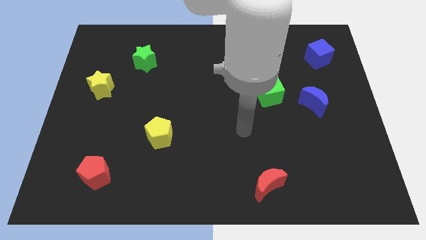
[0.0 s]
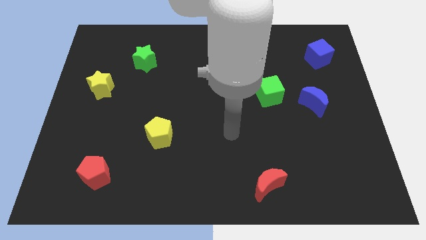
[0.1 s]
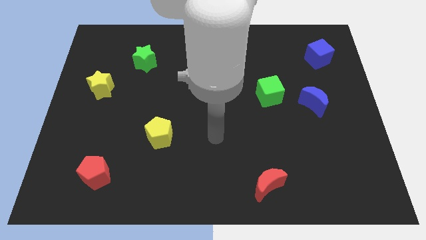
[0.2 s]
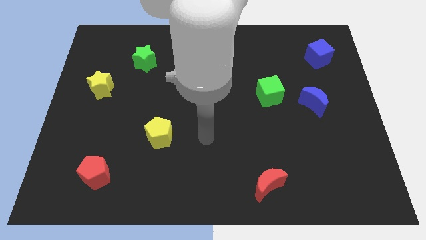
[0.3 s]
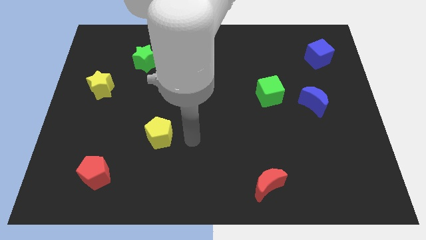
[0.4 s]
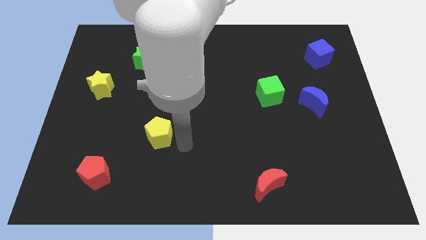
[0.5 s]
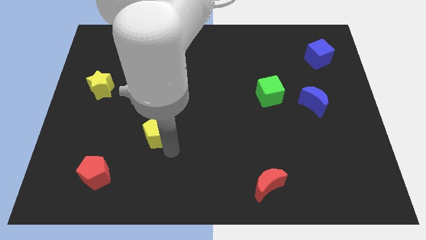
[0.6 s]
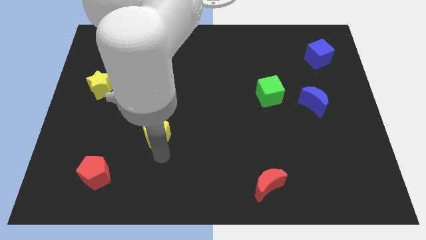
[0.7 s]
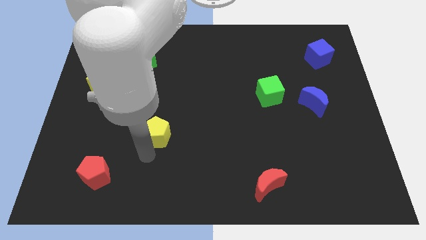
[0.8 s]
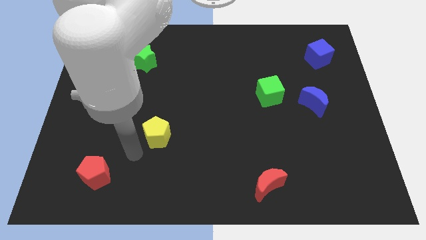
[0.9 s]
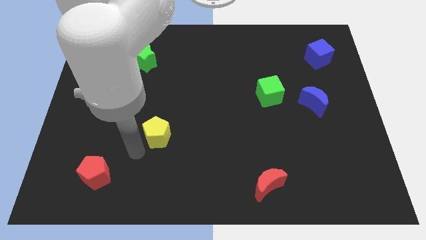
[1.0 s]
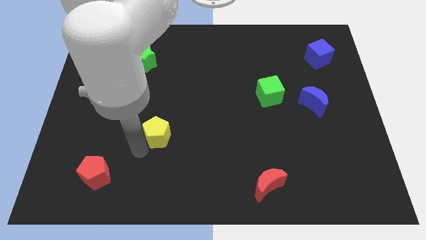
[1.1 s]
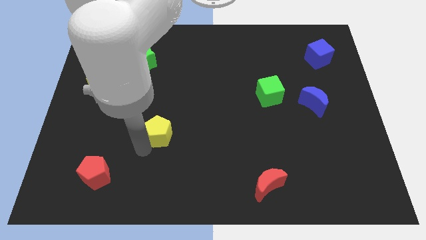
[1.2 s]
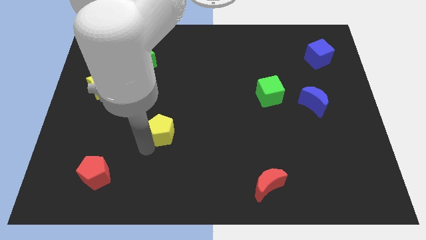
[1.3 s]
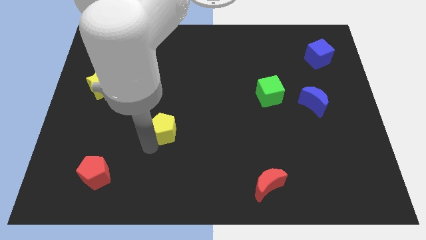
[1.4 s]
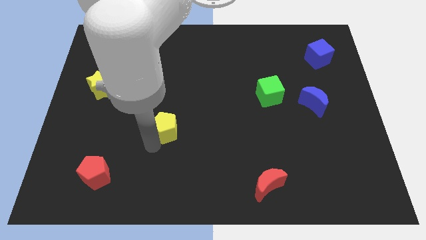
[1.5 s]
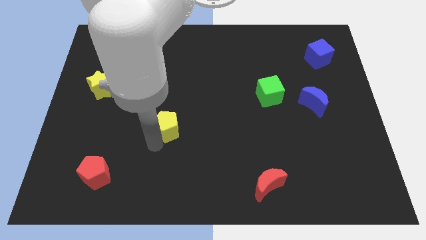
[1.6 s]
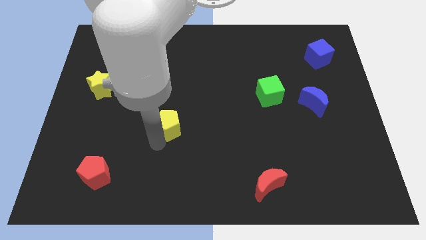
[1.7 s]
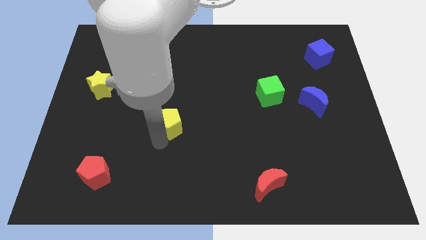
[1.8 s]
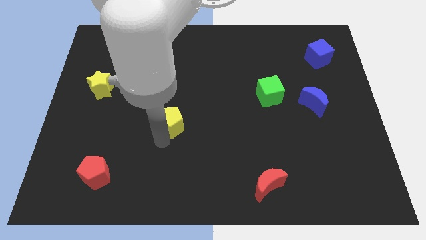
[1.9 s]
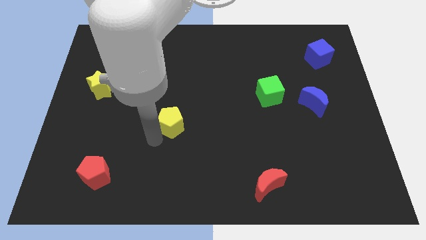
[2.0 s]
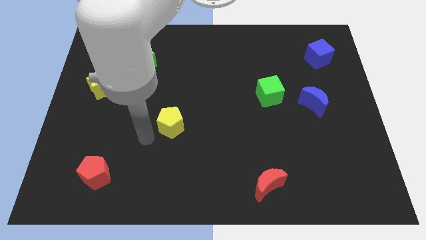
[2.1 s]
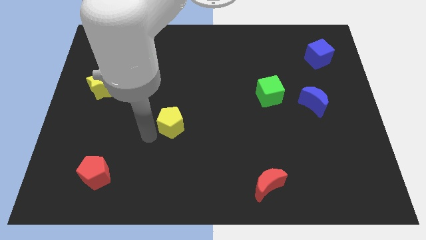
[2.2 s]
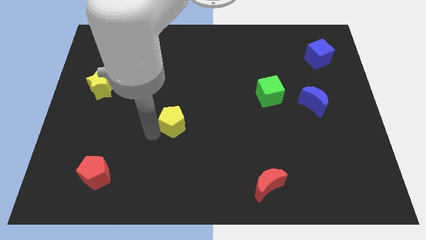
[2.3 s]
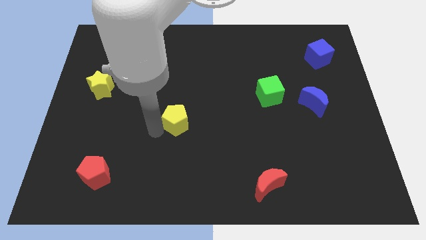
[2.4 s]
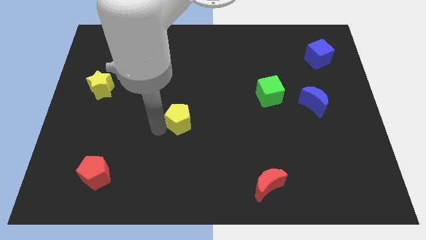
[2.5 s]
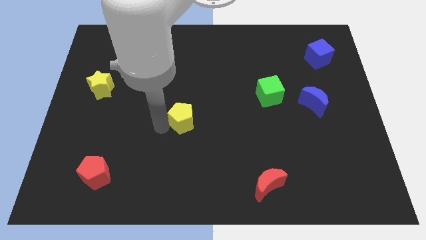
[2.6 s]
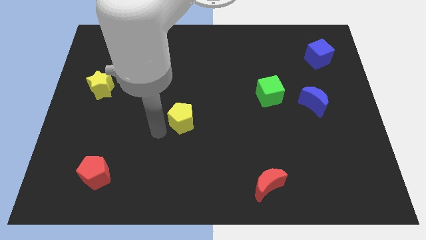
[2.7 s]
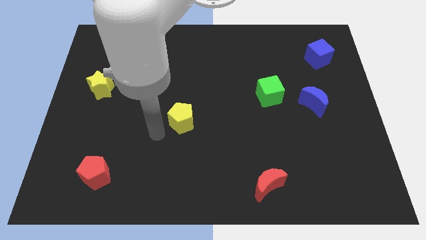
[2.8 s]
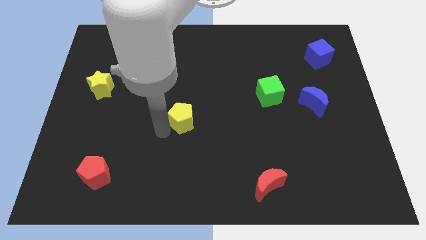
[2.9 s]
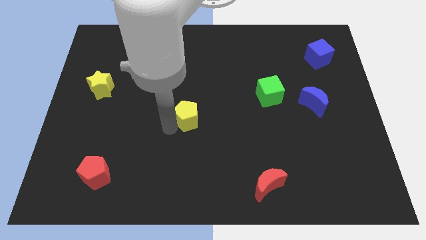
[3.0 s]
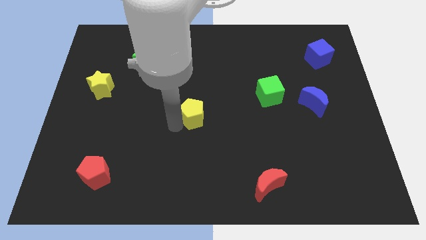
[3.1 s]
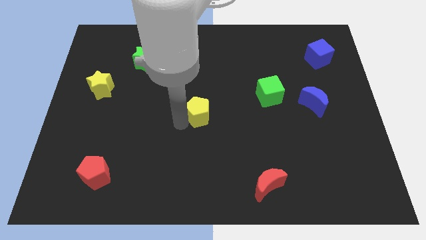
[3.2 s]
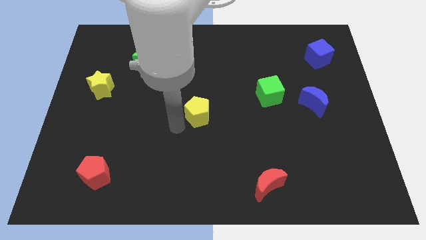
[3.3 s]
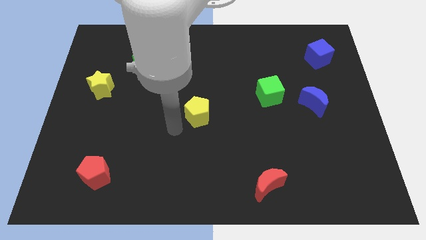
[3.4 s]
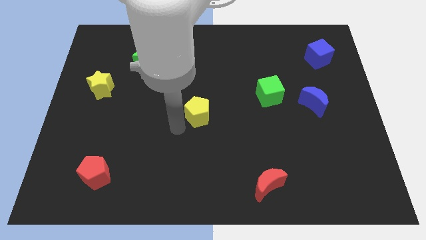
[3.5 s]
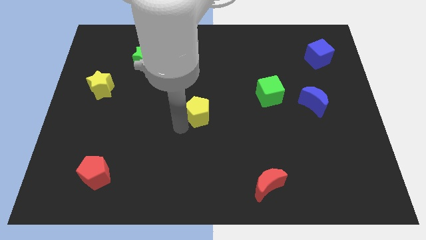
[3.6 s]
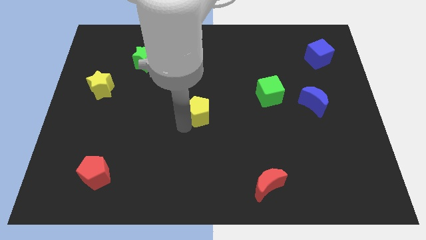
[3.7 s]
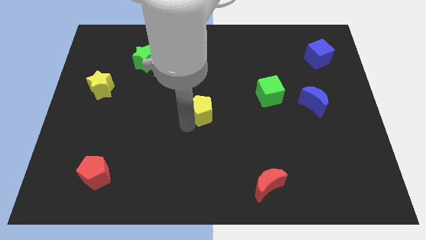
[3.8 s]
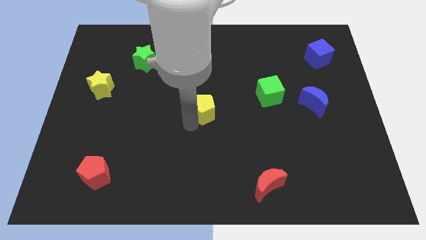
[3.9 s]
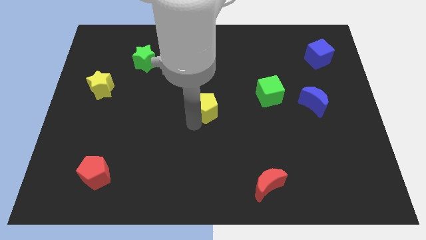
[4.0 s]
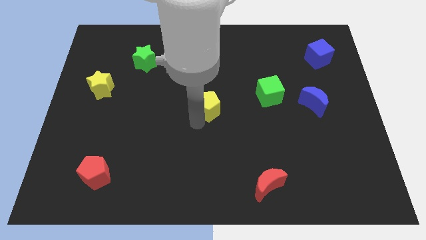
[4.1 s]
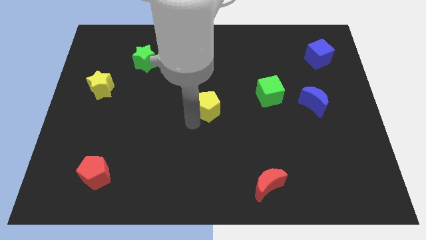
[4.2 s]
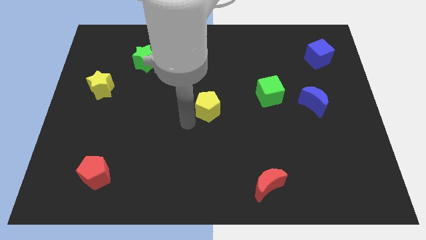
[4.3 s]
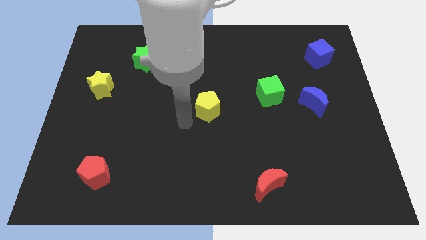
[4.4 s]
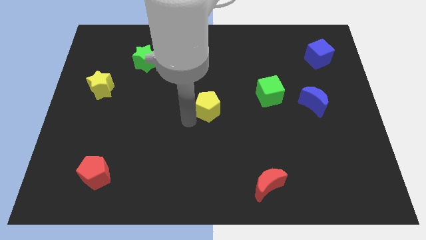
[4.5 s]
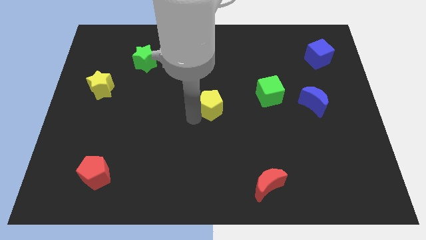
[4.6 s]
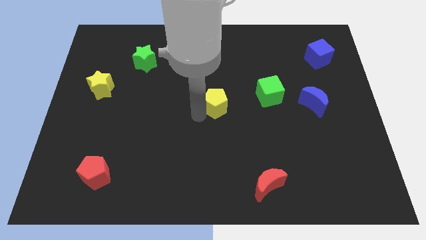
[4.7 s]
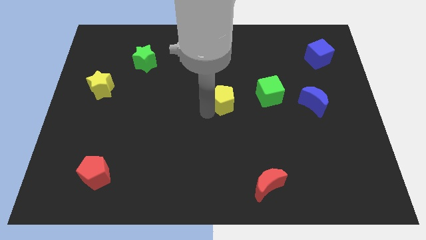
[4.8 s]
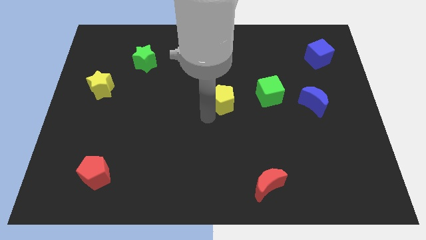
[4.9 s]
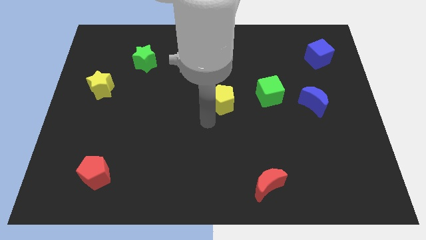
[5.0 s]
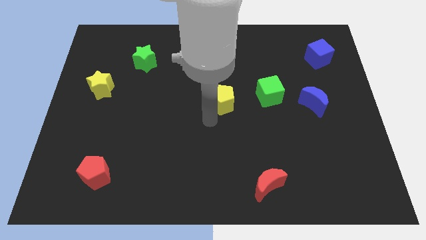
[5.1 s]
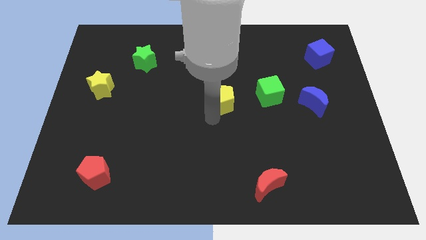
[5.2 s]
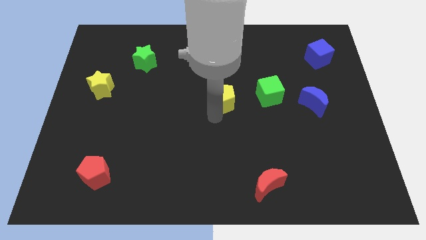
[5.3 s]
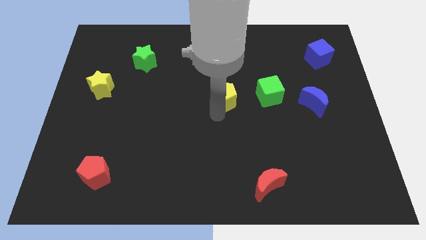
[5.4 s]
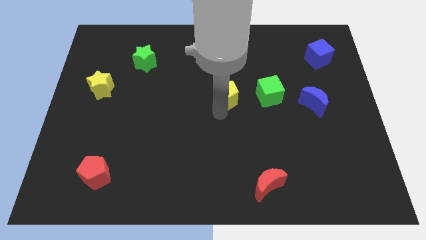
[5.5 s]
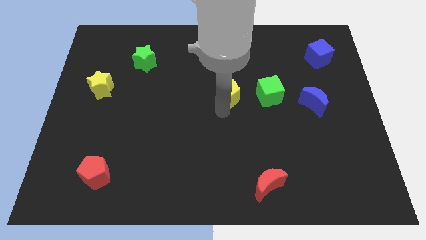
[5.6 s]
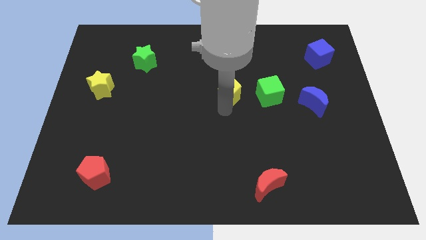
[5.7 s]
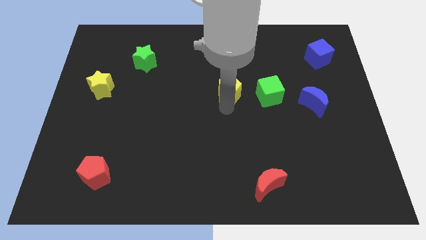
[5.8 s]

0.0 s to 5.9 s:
slide the yellow pentagon upwards and to the right diagonally

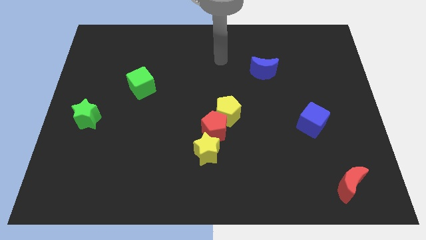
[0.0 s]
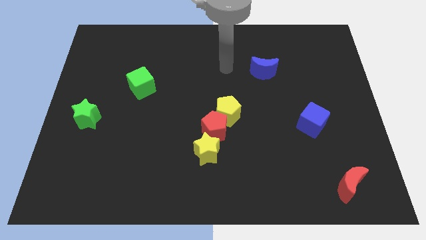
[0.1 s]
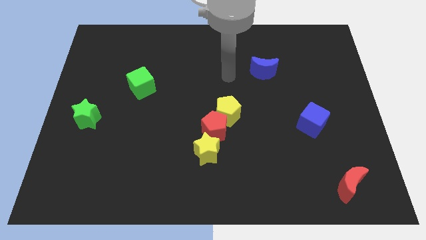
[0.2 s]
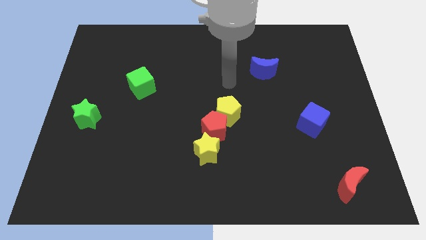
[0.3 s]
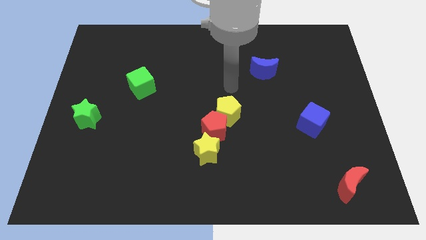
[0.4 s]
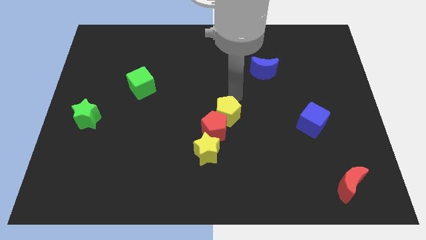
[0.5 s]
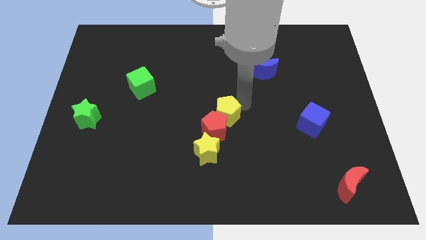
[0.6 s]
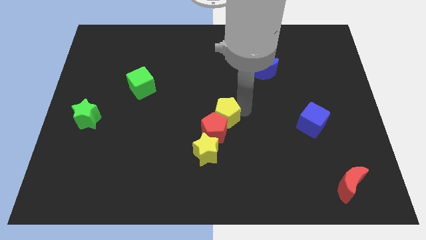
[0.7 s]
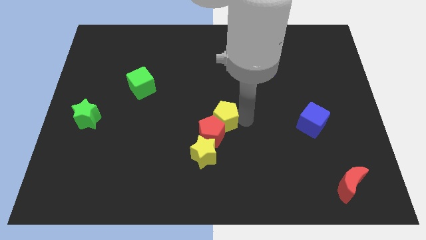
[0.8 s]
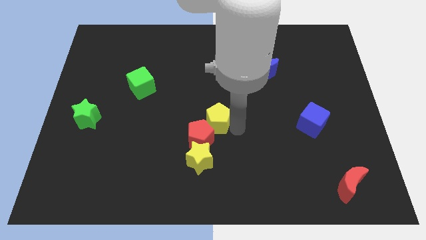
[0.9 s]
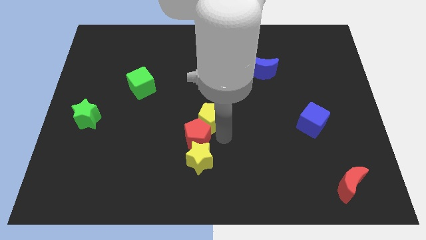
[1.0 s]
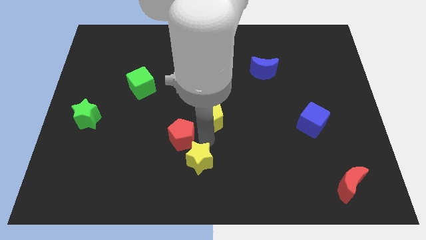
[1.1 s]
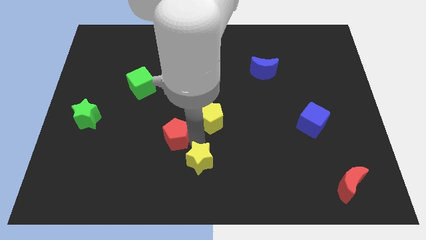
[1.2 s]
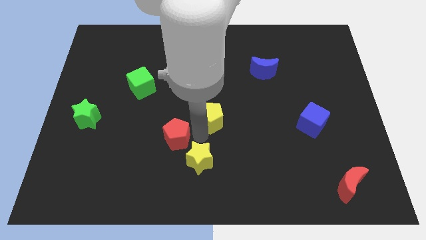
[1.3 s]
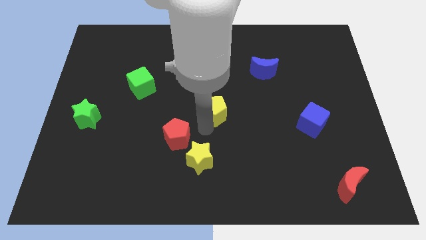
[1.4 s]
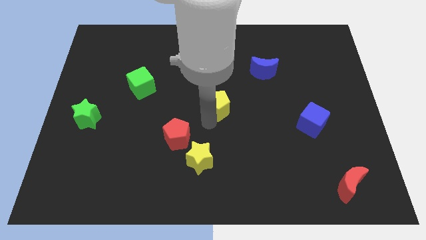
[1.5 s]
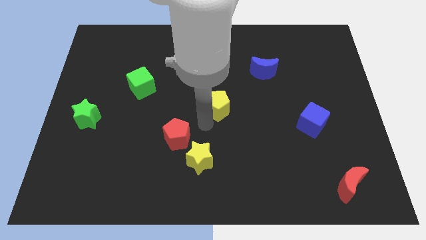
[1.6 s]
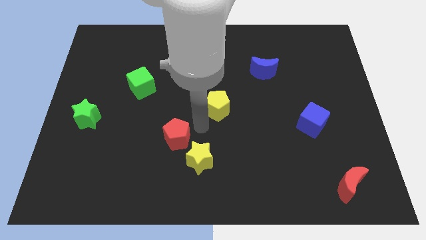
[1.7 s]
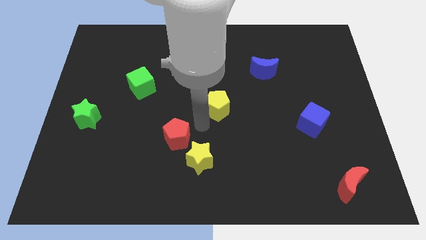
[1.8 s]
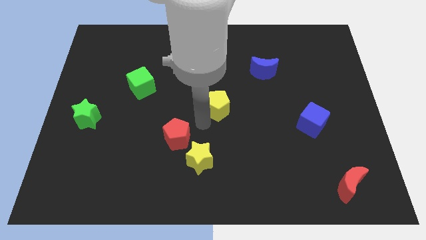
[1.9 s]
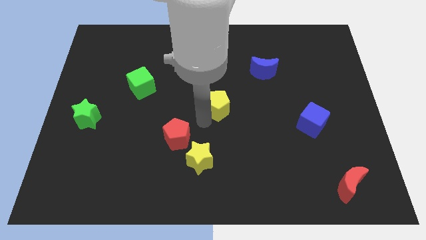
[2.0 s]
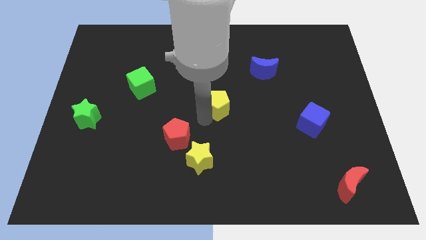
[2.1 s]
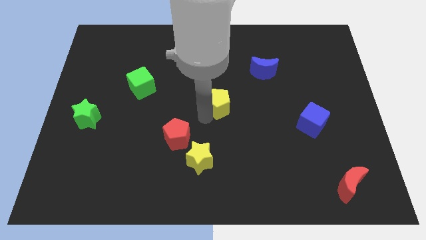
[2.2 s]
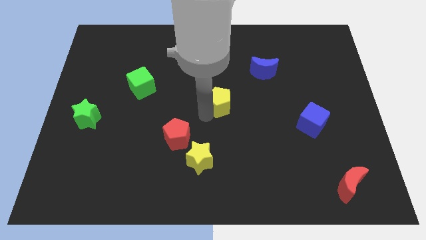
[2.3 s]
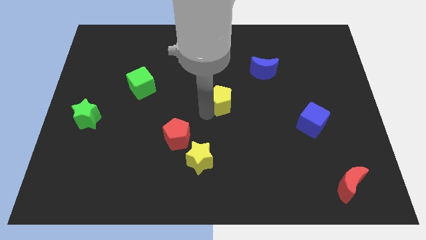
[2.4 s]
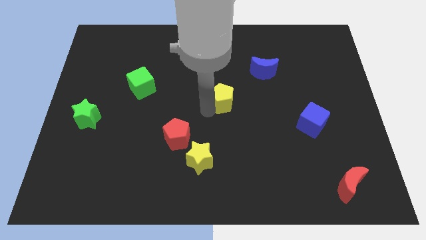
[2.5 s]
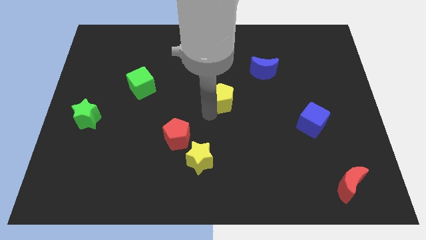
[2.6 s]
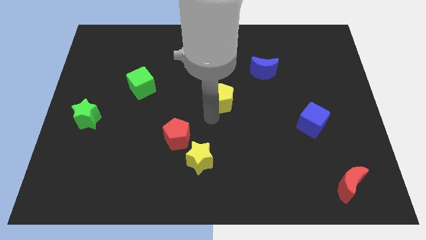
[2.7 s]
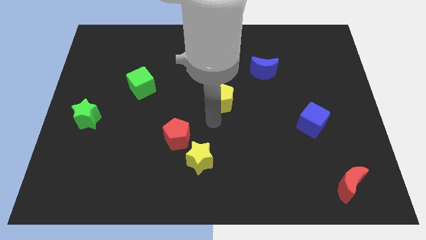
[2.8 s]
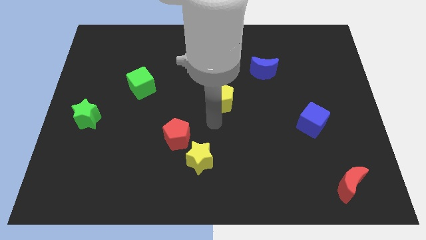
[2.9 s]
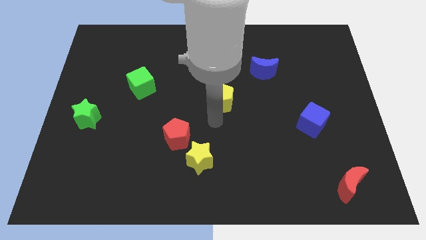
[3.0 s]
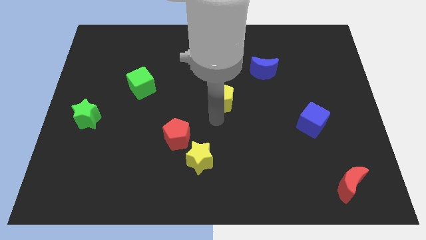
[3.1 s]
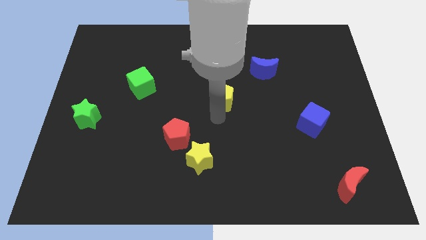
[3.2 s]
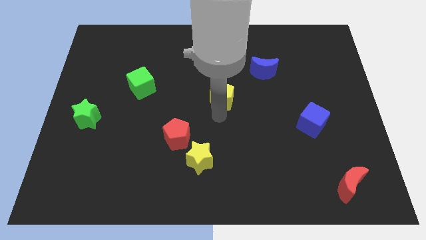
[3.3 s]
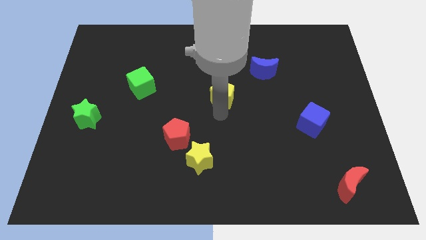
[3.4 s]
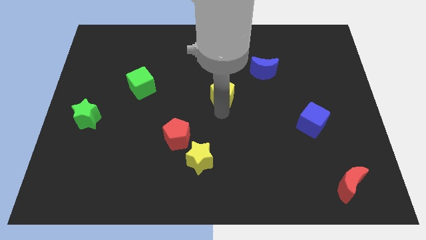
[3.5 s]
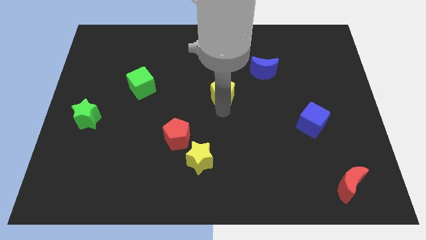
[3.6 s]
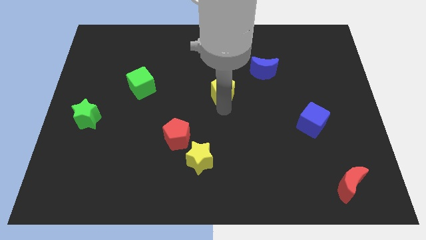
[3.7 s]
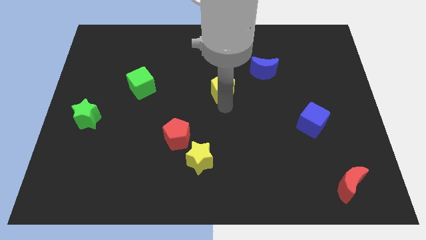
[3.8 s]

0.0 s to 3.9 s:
push the yellow pentagon a bit up
